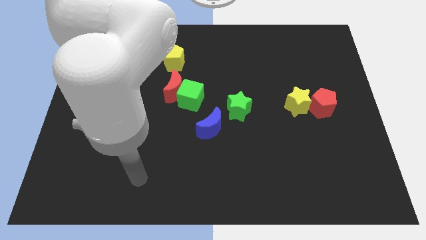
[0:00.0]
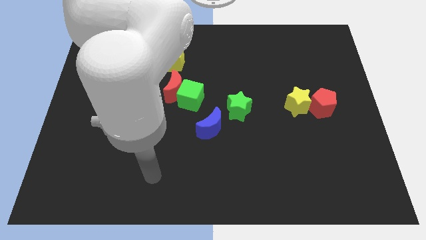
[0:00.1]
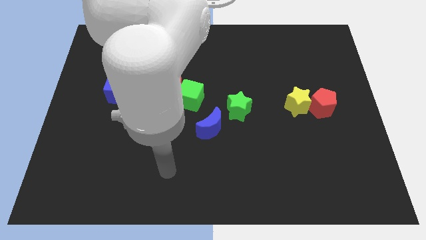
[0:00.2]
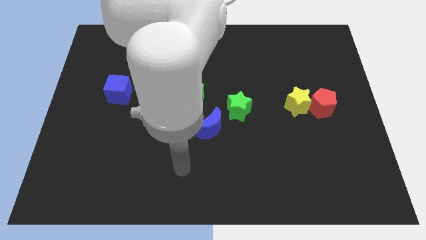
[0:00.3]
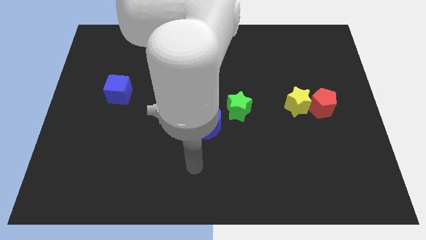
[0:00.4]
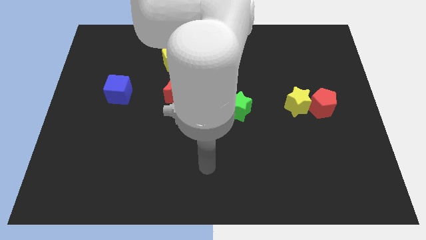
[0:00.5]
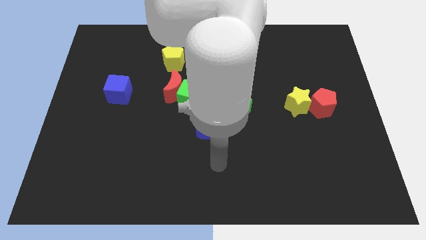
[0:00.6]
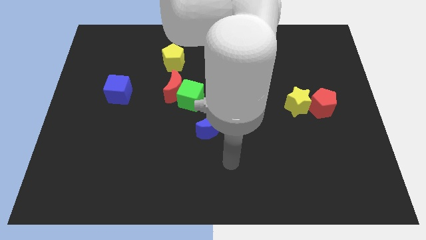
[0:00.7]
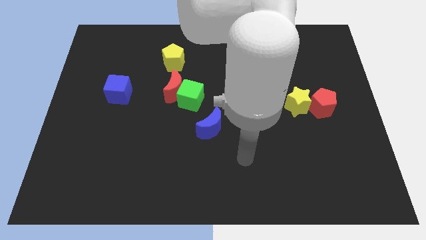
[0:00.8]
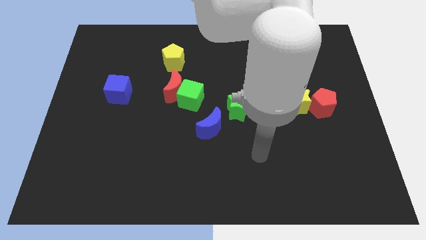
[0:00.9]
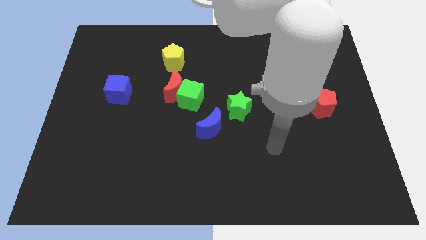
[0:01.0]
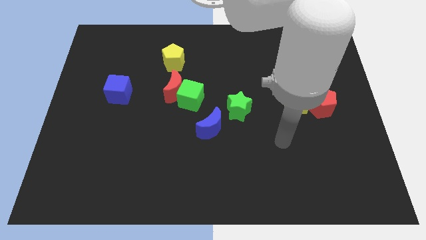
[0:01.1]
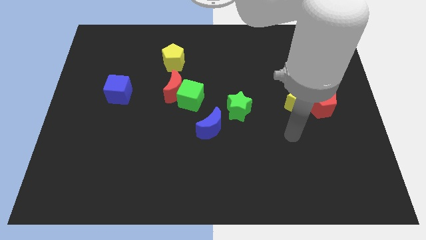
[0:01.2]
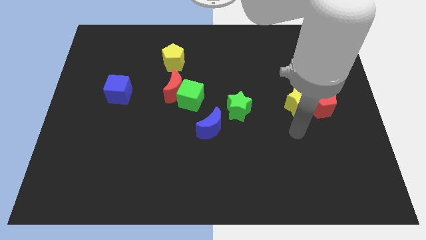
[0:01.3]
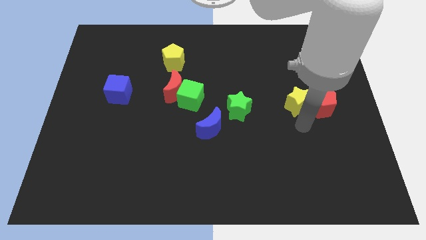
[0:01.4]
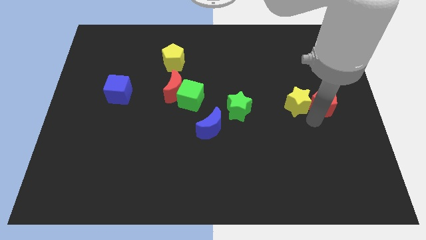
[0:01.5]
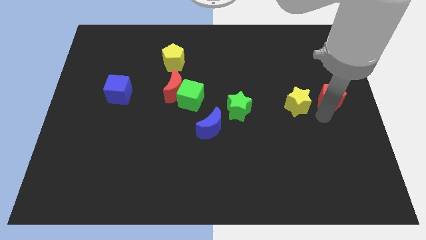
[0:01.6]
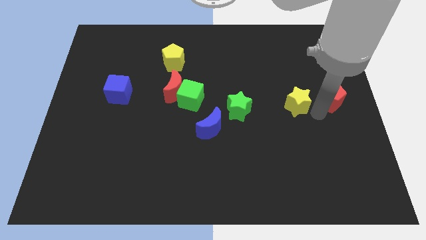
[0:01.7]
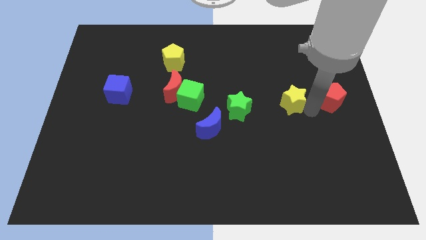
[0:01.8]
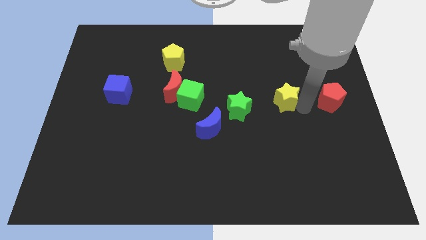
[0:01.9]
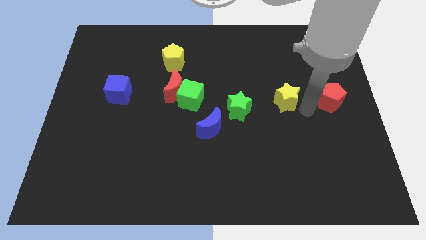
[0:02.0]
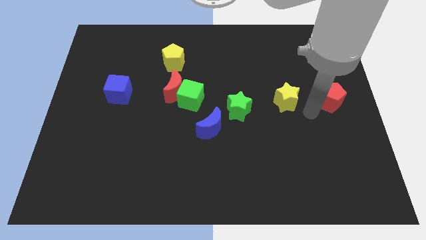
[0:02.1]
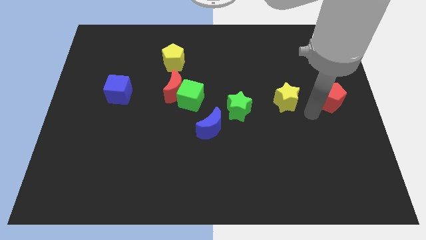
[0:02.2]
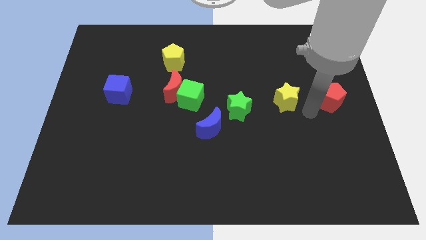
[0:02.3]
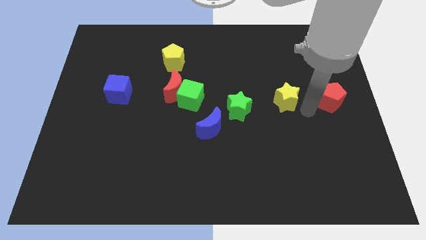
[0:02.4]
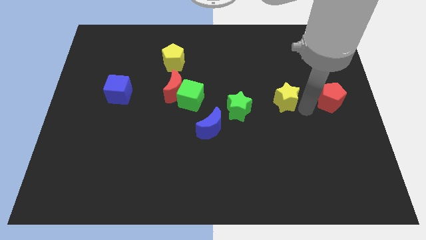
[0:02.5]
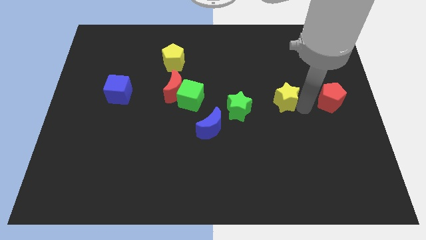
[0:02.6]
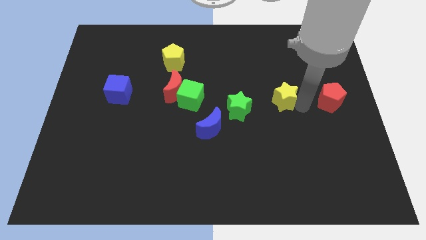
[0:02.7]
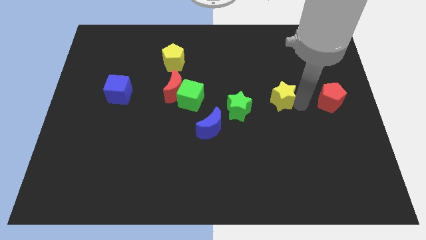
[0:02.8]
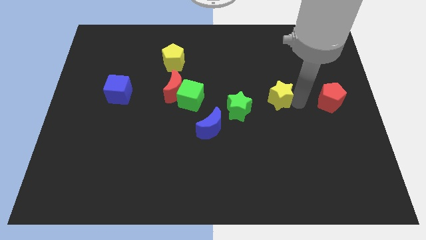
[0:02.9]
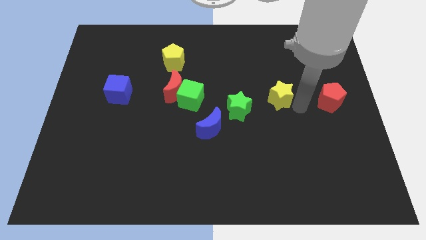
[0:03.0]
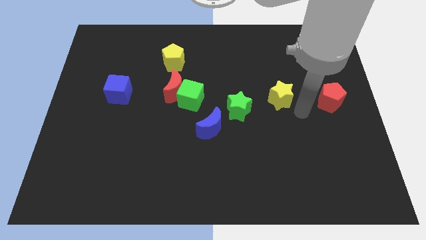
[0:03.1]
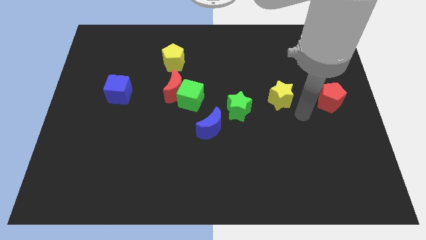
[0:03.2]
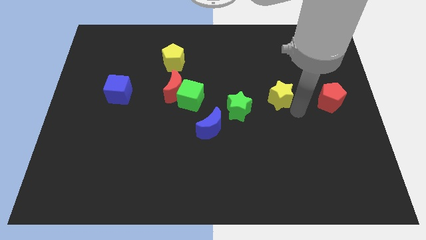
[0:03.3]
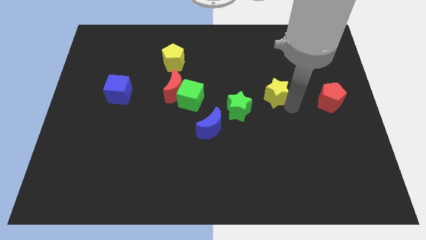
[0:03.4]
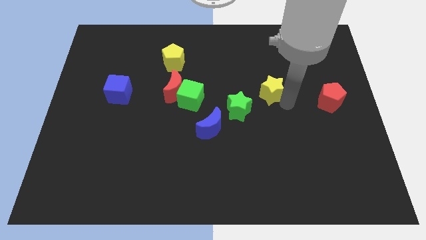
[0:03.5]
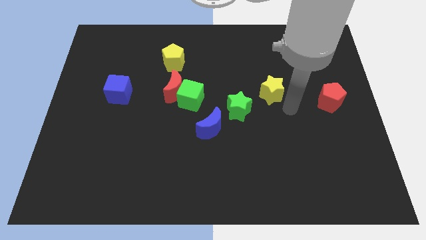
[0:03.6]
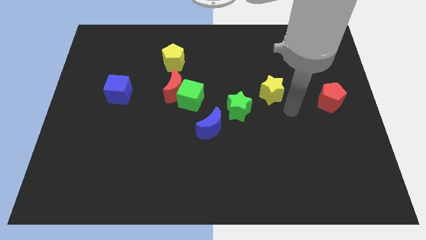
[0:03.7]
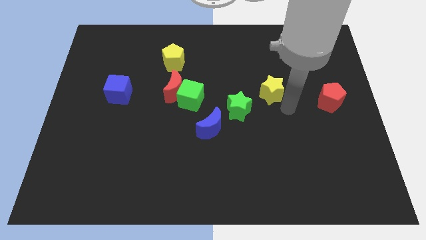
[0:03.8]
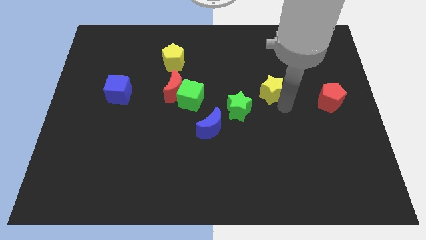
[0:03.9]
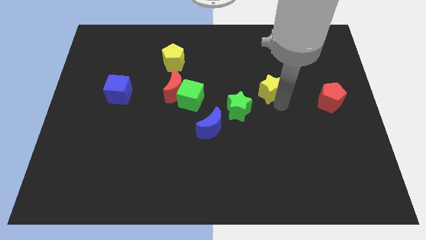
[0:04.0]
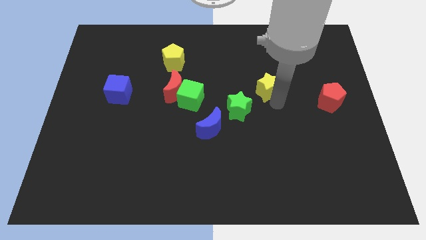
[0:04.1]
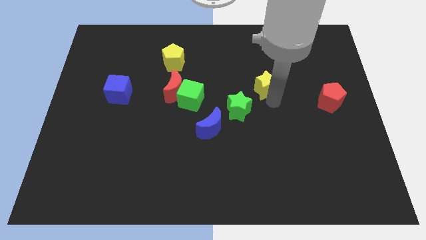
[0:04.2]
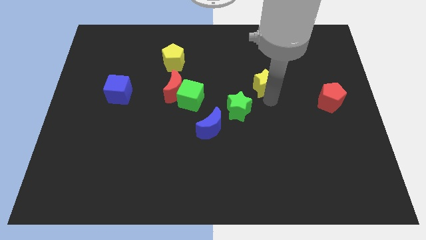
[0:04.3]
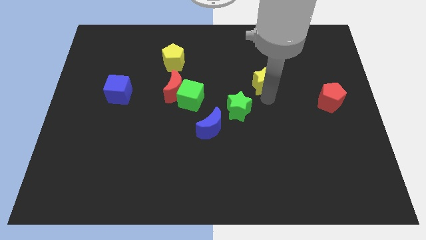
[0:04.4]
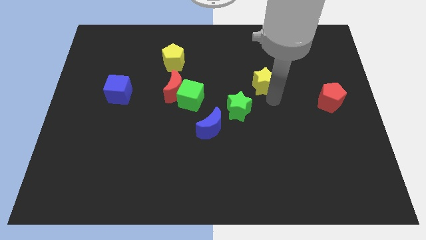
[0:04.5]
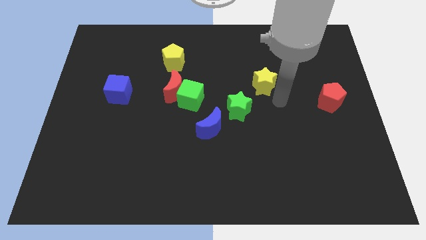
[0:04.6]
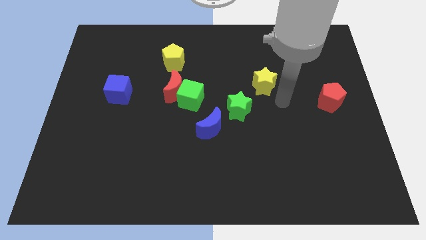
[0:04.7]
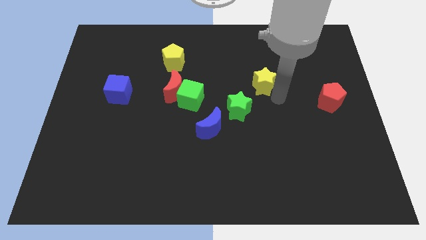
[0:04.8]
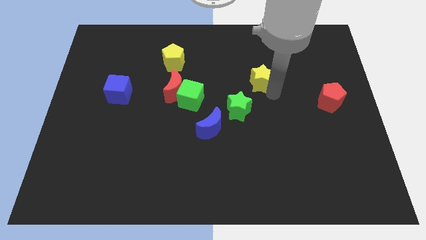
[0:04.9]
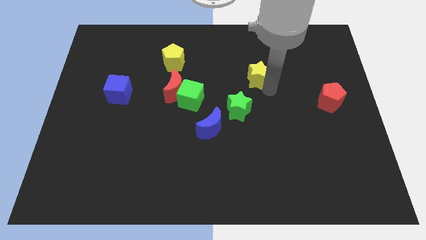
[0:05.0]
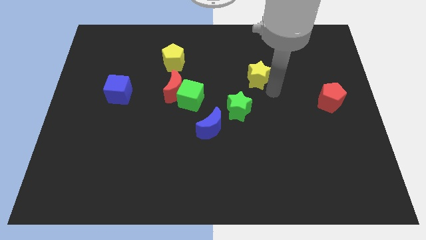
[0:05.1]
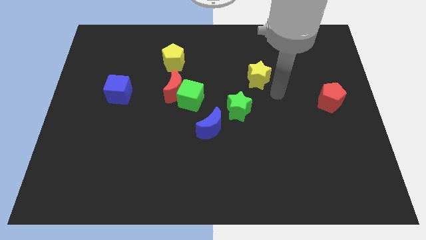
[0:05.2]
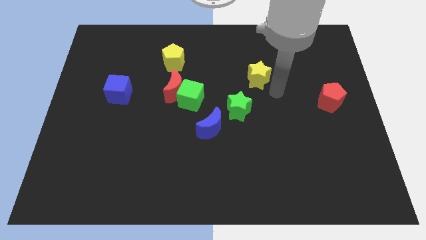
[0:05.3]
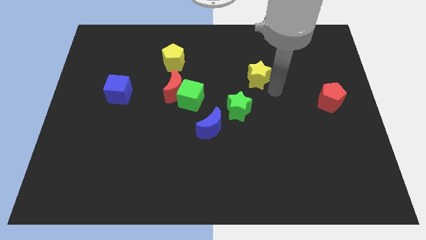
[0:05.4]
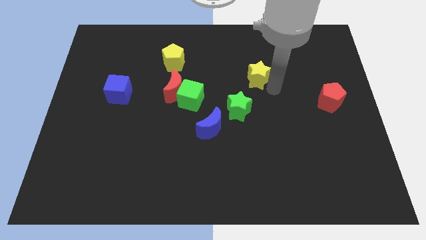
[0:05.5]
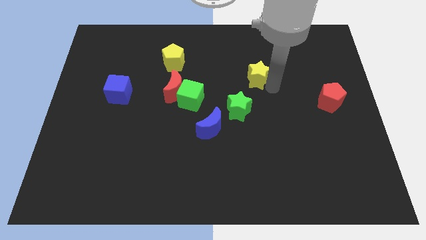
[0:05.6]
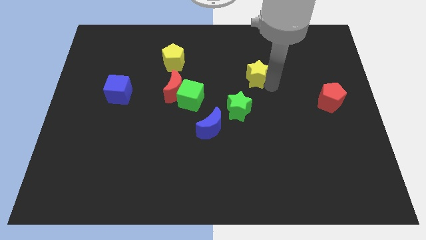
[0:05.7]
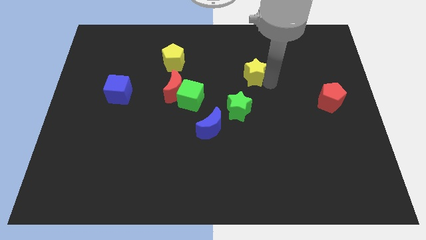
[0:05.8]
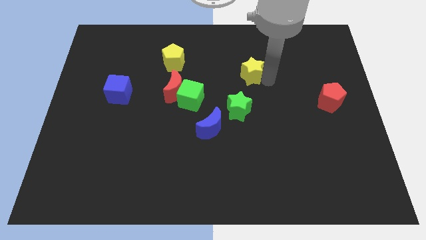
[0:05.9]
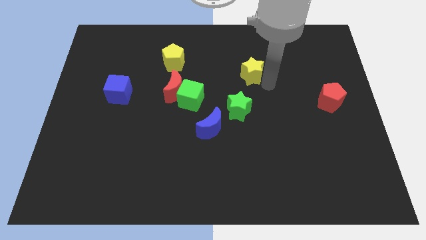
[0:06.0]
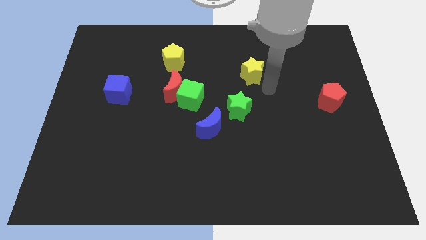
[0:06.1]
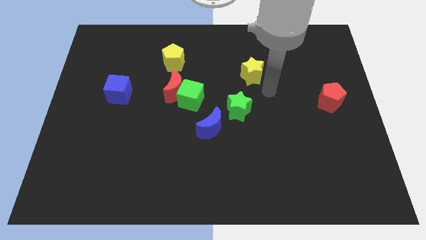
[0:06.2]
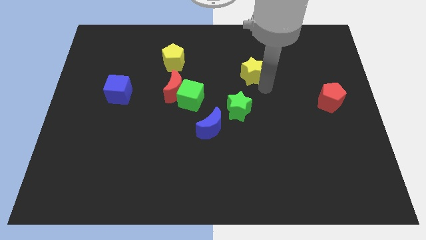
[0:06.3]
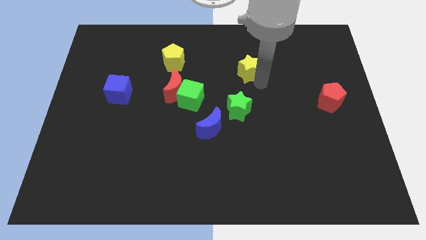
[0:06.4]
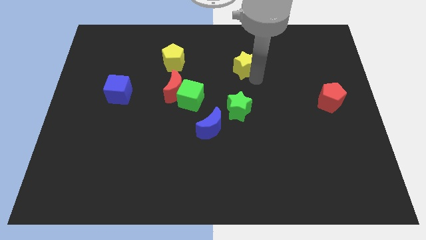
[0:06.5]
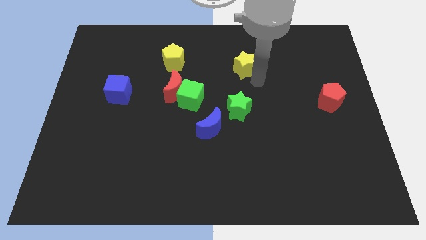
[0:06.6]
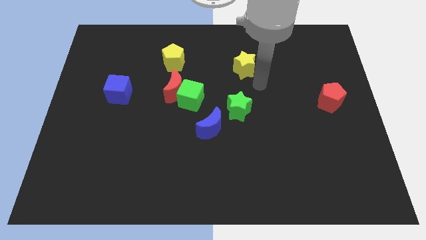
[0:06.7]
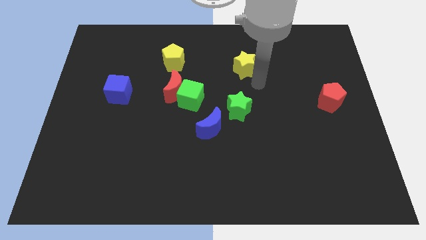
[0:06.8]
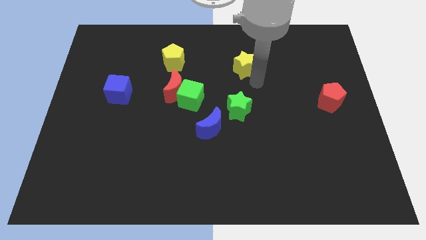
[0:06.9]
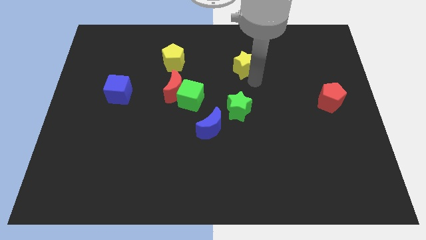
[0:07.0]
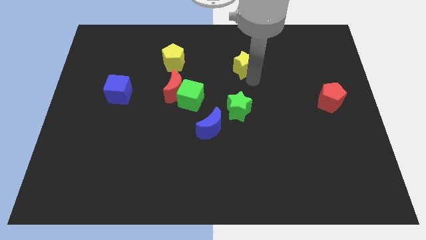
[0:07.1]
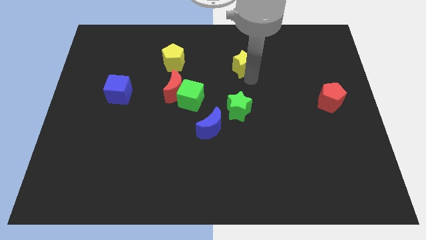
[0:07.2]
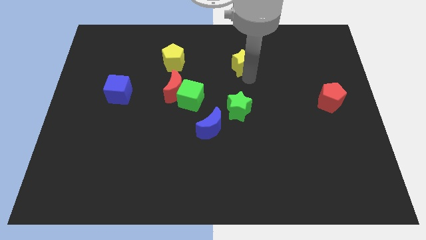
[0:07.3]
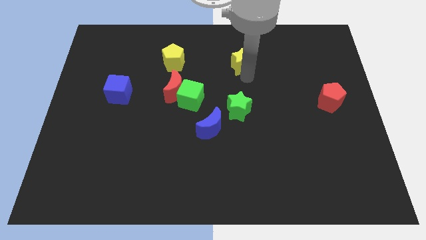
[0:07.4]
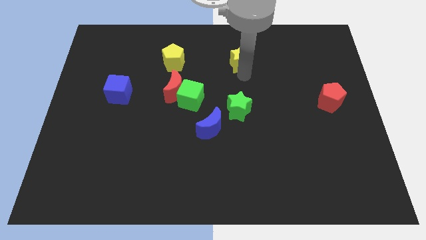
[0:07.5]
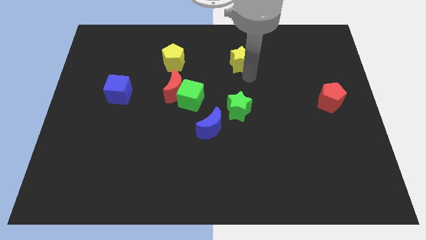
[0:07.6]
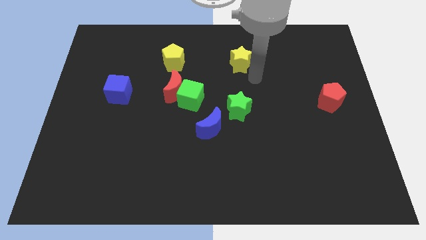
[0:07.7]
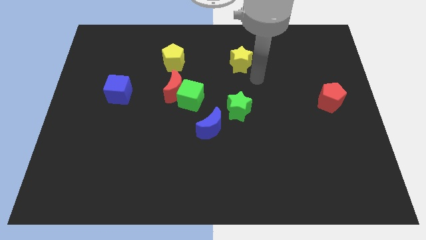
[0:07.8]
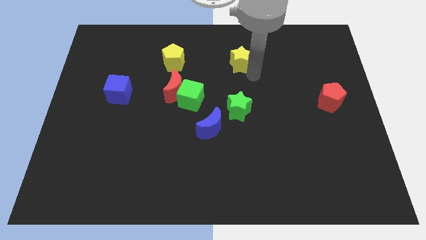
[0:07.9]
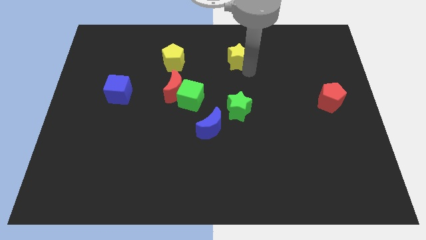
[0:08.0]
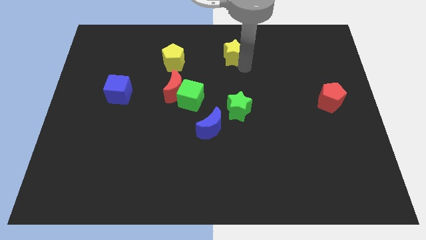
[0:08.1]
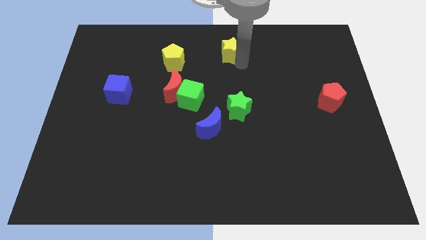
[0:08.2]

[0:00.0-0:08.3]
slide the yellow star to the top side
